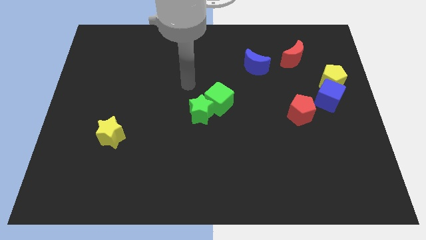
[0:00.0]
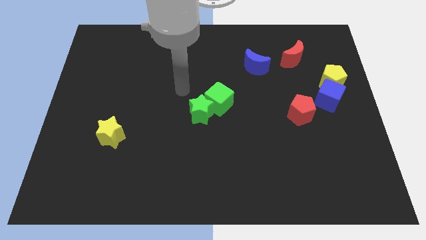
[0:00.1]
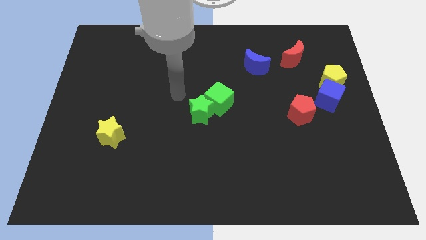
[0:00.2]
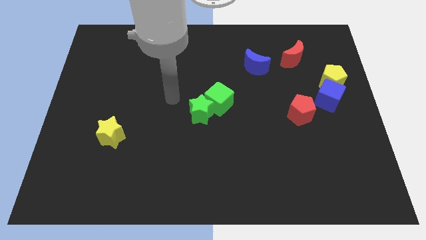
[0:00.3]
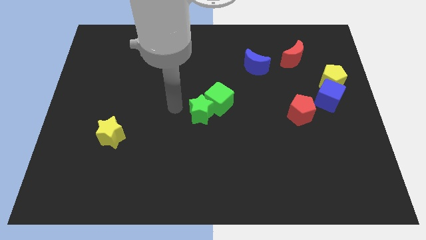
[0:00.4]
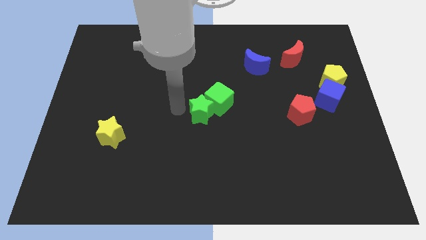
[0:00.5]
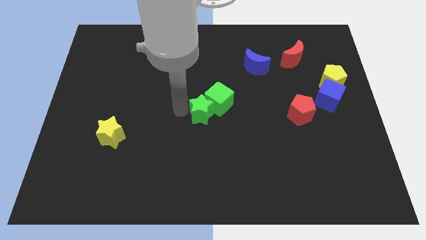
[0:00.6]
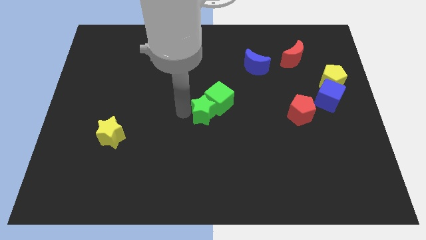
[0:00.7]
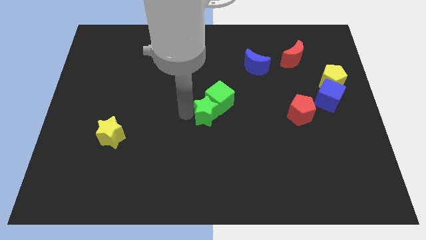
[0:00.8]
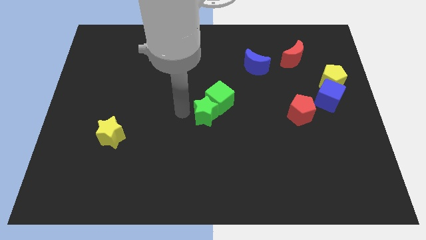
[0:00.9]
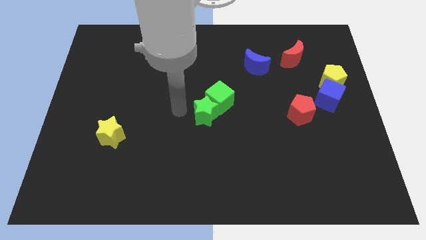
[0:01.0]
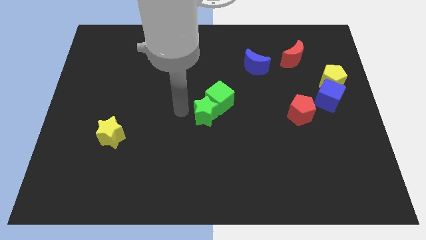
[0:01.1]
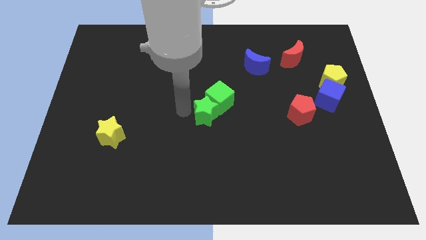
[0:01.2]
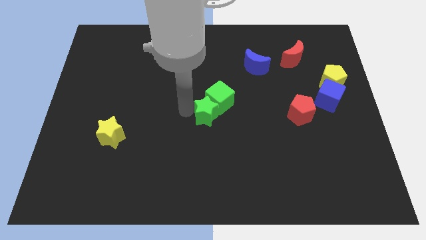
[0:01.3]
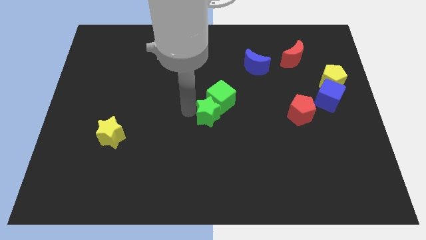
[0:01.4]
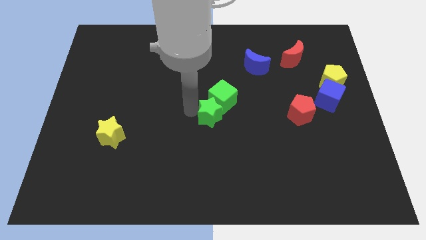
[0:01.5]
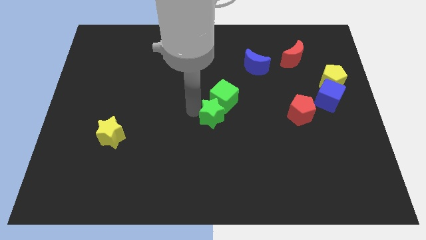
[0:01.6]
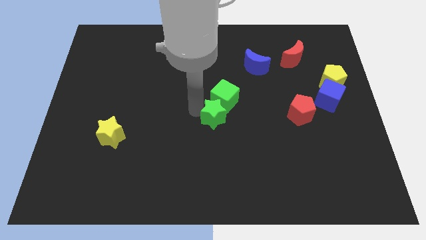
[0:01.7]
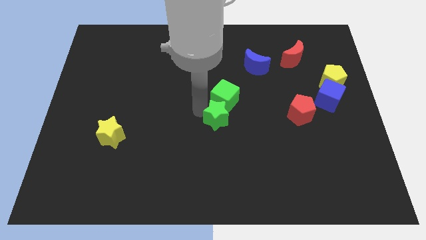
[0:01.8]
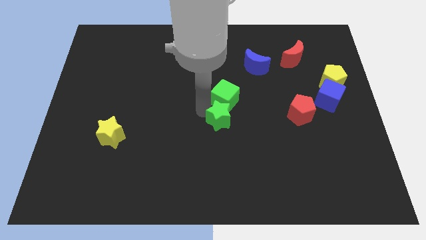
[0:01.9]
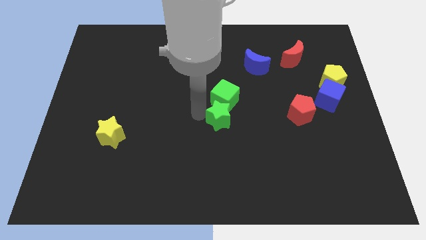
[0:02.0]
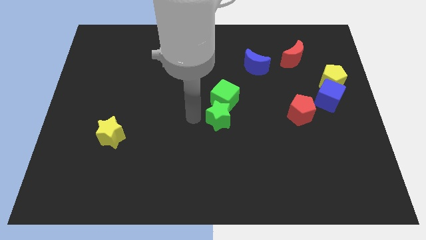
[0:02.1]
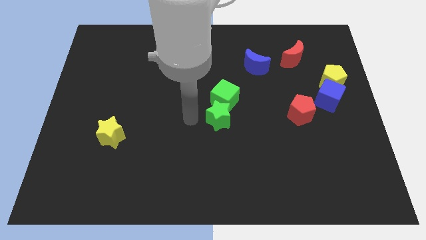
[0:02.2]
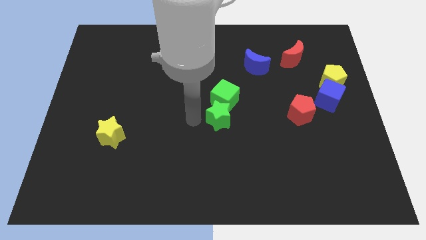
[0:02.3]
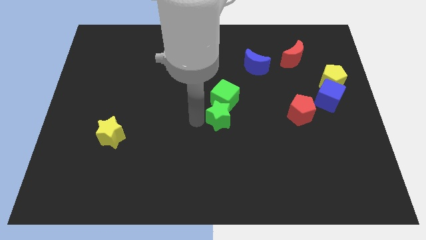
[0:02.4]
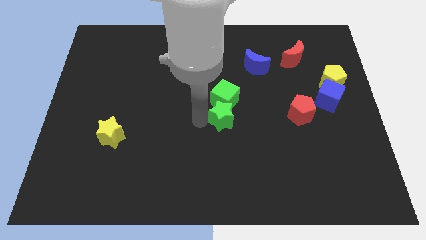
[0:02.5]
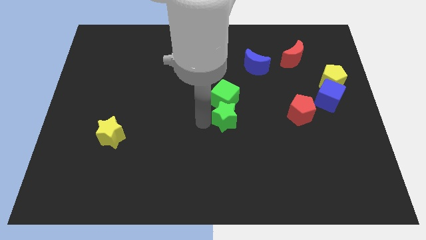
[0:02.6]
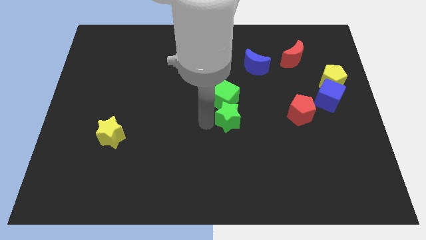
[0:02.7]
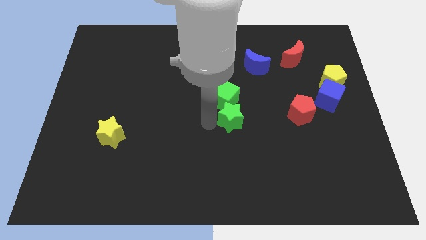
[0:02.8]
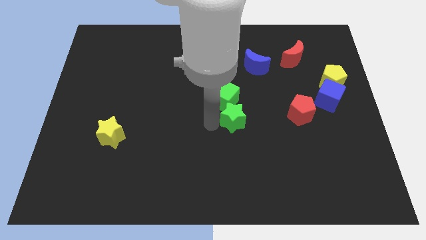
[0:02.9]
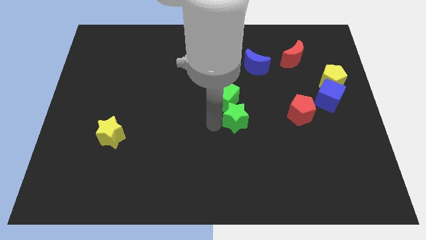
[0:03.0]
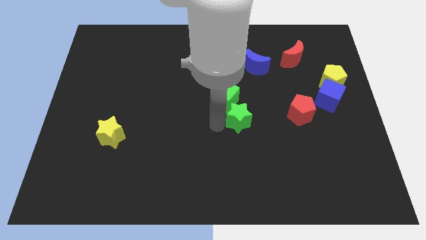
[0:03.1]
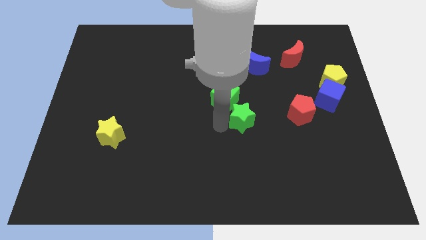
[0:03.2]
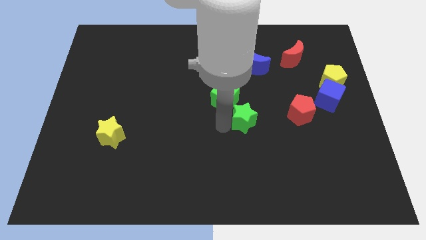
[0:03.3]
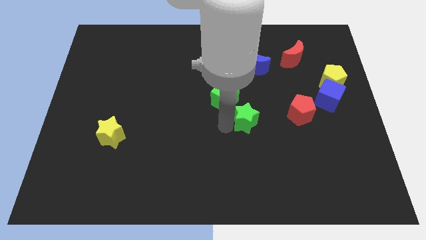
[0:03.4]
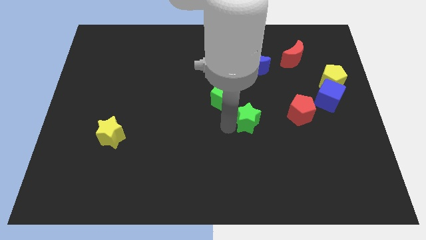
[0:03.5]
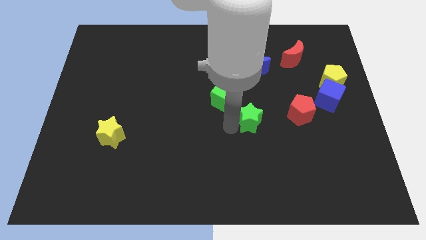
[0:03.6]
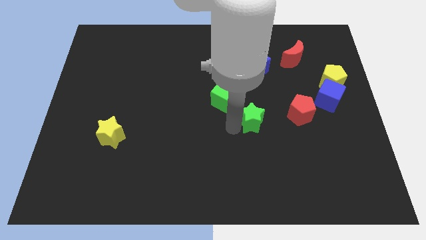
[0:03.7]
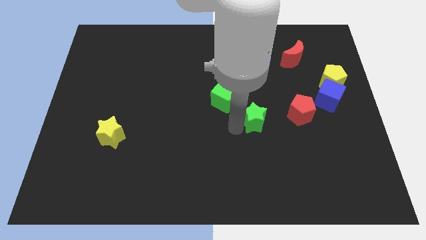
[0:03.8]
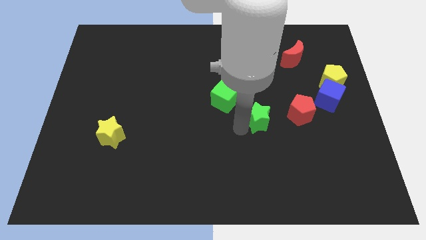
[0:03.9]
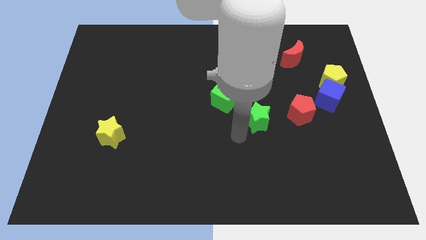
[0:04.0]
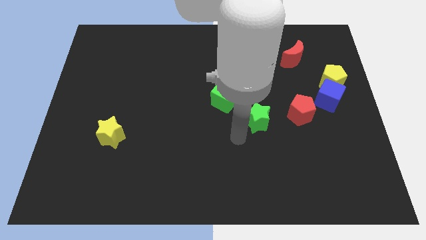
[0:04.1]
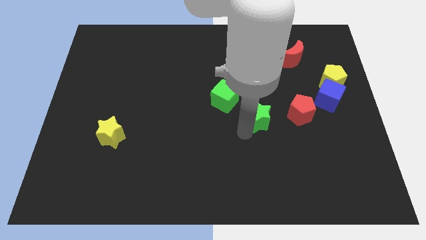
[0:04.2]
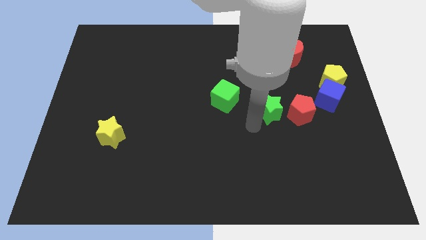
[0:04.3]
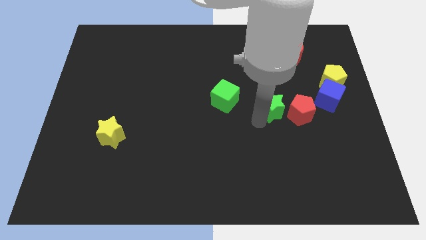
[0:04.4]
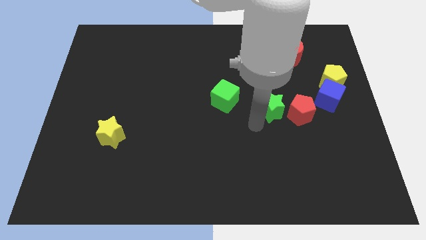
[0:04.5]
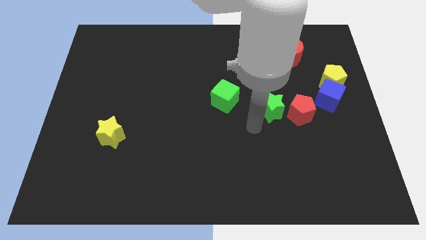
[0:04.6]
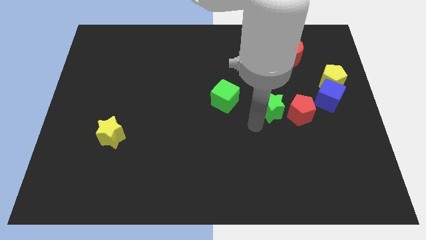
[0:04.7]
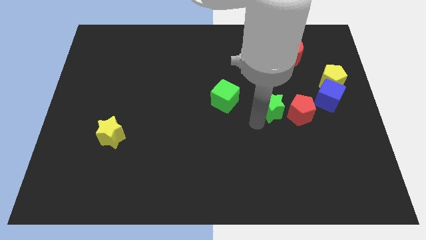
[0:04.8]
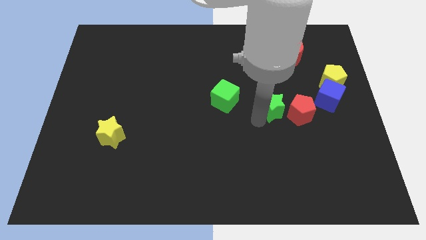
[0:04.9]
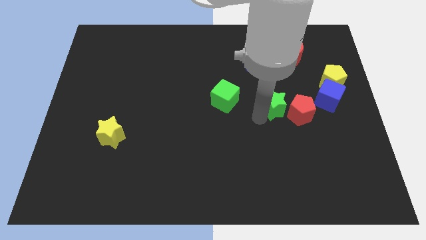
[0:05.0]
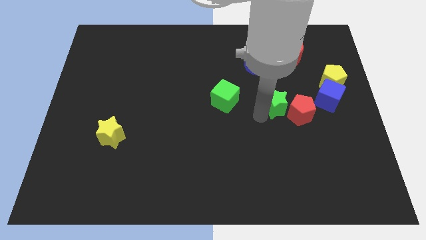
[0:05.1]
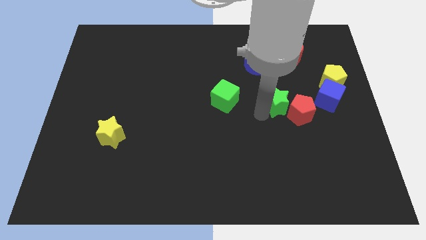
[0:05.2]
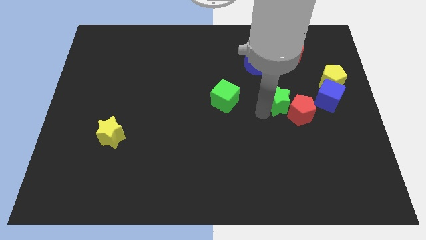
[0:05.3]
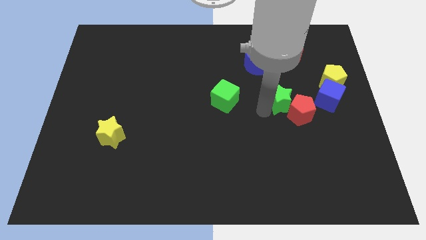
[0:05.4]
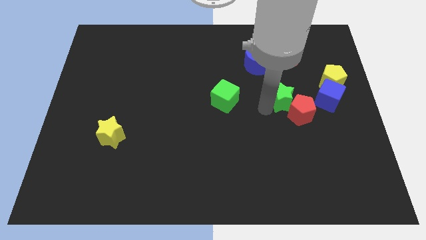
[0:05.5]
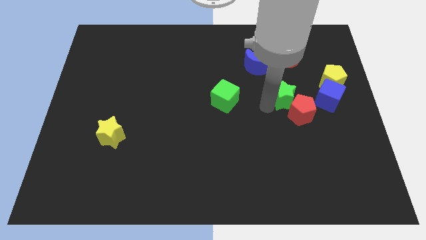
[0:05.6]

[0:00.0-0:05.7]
move the green star to the bottom of the red moon
